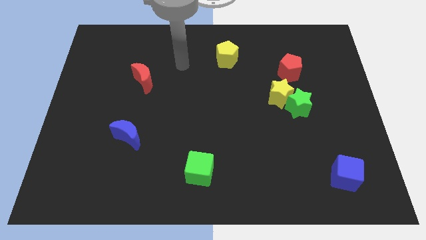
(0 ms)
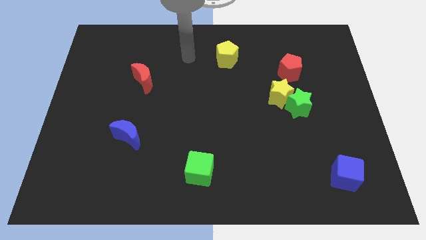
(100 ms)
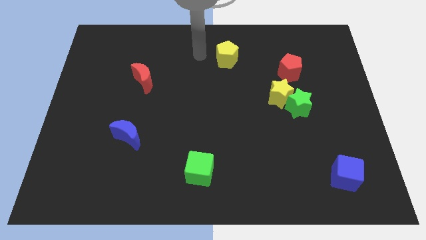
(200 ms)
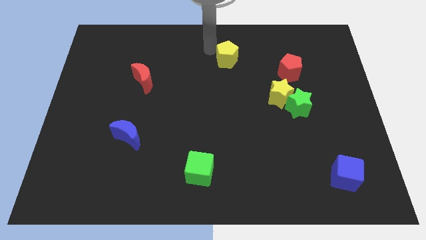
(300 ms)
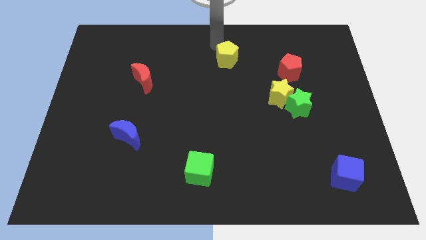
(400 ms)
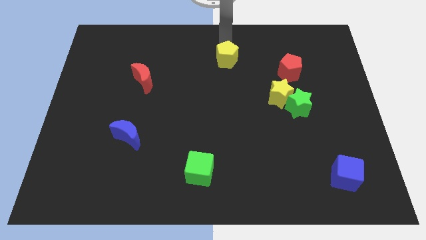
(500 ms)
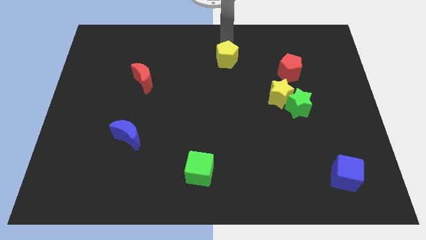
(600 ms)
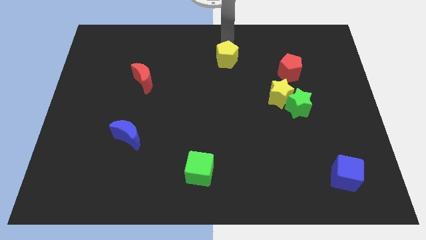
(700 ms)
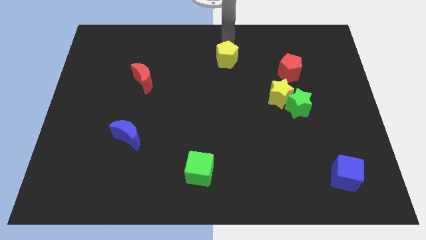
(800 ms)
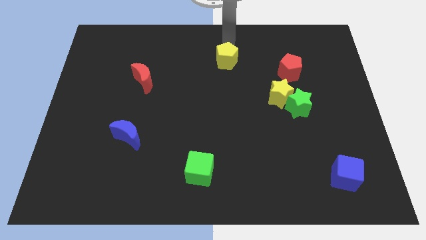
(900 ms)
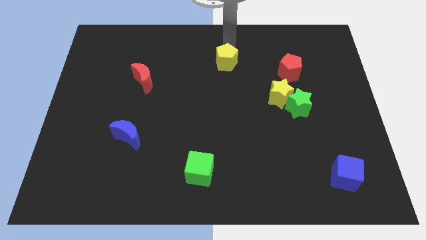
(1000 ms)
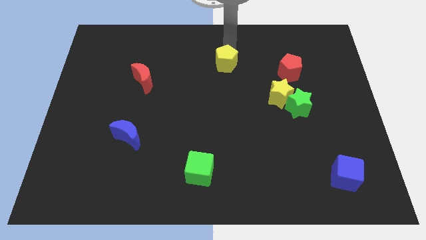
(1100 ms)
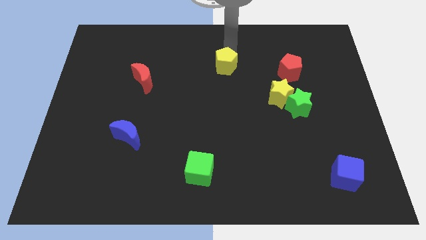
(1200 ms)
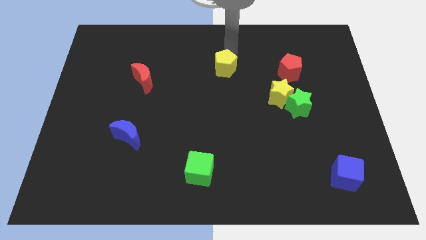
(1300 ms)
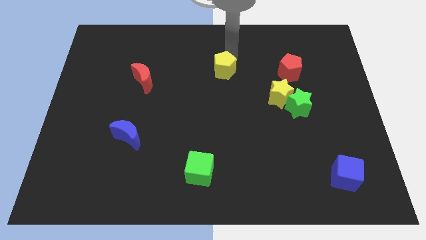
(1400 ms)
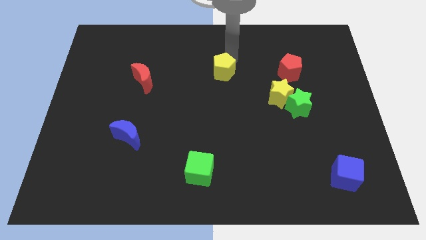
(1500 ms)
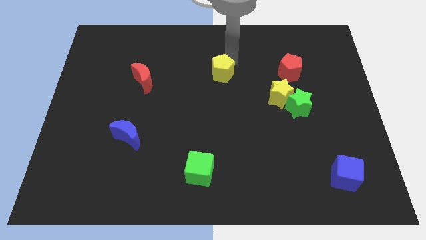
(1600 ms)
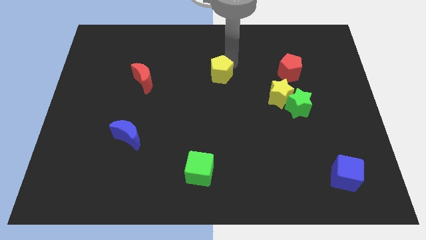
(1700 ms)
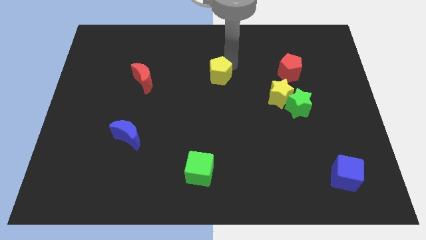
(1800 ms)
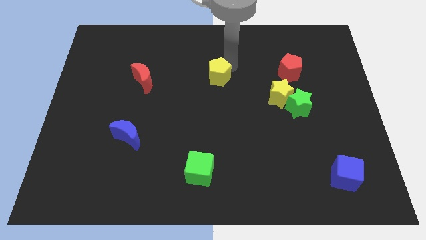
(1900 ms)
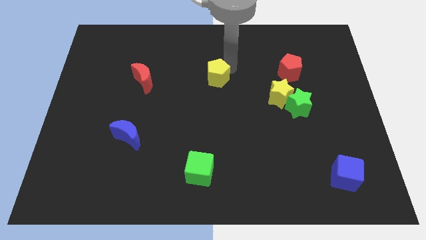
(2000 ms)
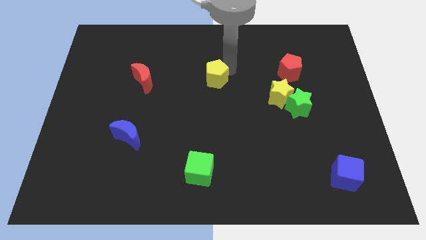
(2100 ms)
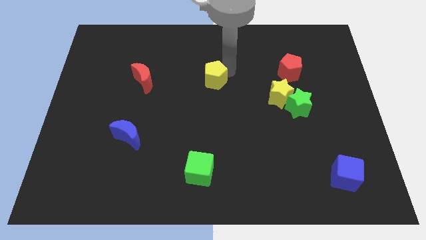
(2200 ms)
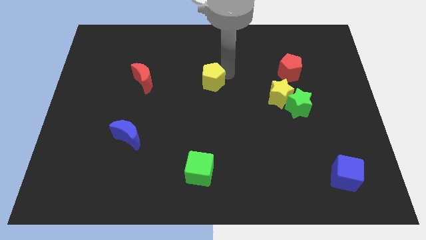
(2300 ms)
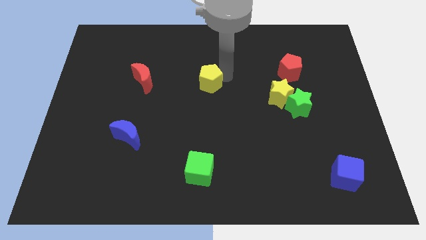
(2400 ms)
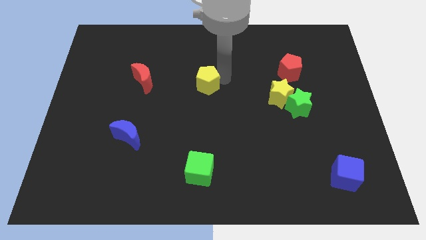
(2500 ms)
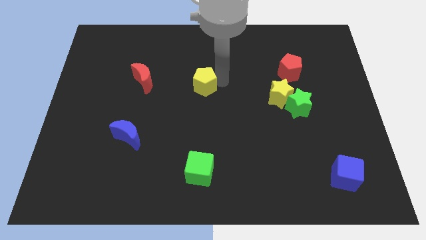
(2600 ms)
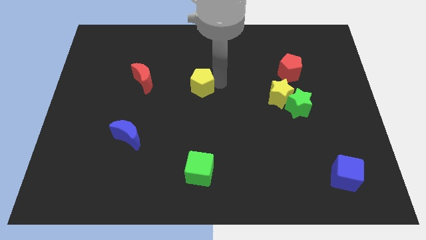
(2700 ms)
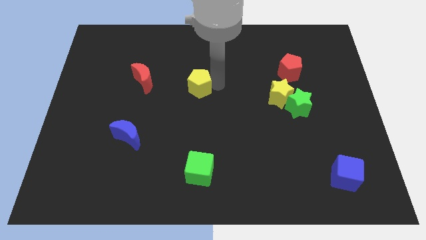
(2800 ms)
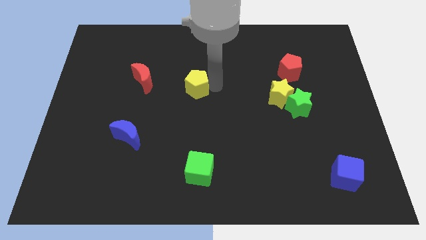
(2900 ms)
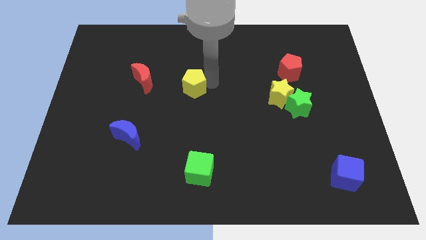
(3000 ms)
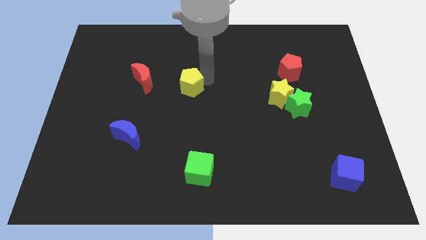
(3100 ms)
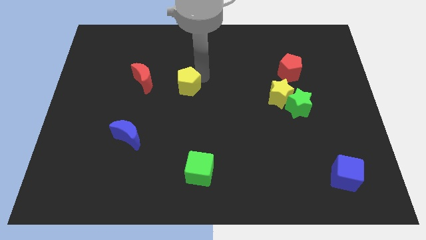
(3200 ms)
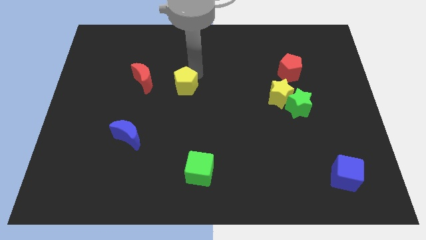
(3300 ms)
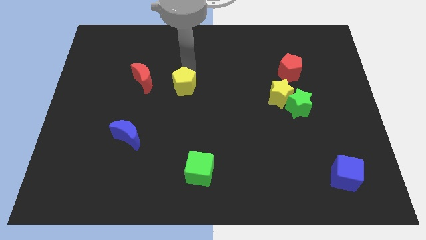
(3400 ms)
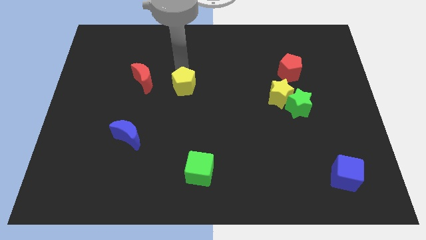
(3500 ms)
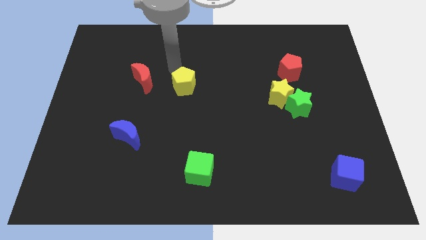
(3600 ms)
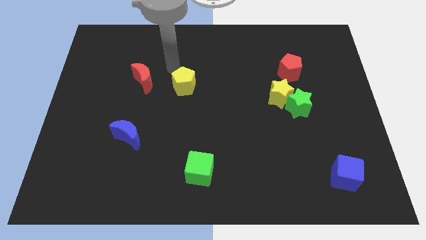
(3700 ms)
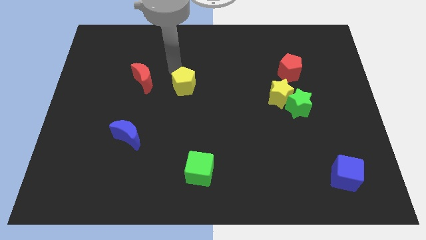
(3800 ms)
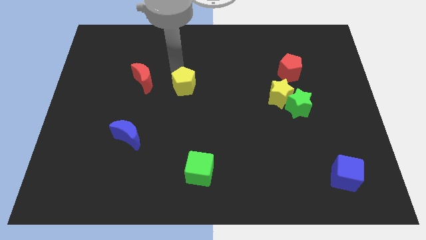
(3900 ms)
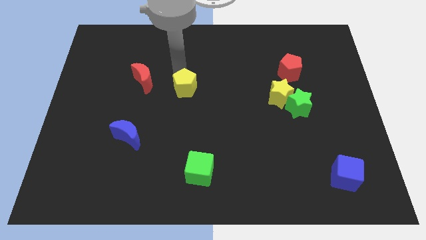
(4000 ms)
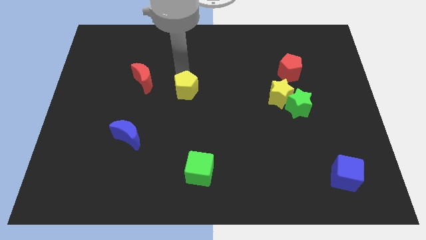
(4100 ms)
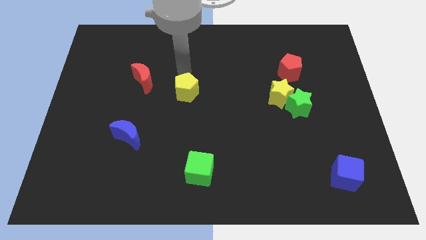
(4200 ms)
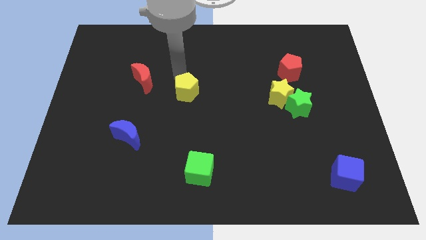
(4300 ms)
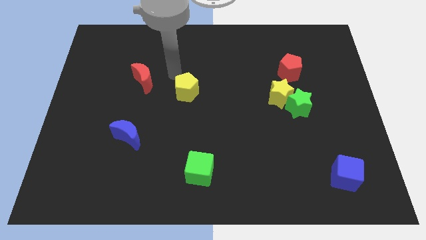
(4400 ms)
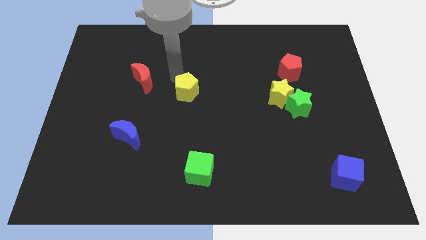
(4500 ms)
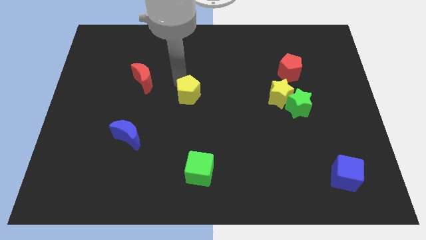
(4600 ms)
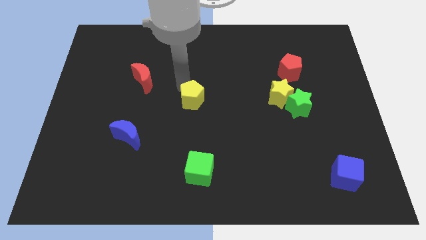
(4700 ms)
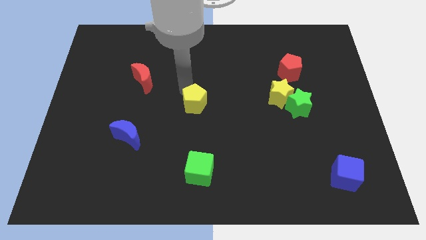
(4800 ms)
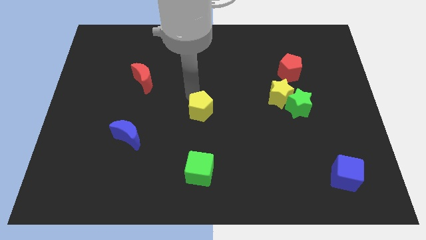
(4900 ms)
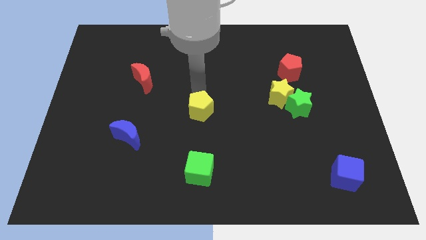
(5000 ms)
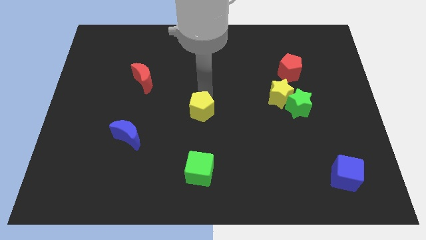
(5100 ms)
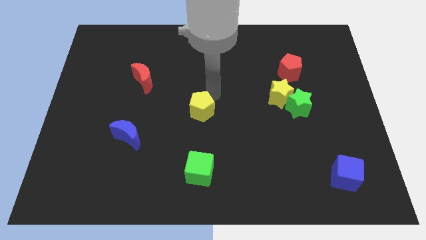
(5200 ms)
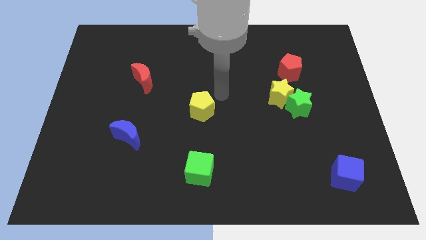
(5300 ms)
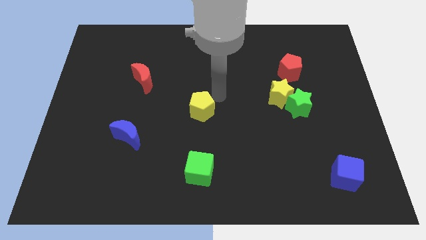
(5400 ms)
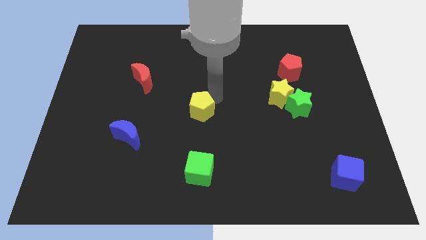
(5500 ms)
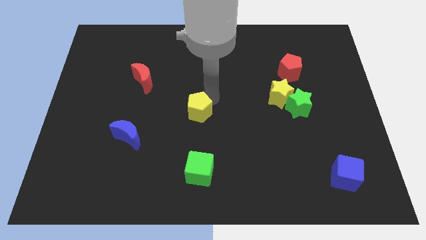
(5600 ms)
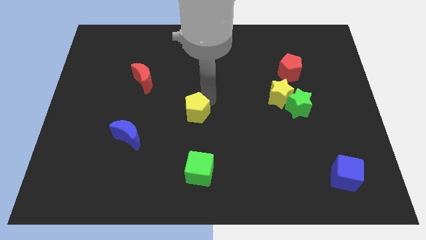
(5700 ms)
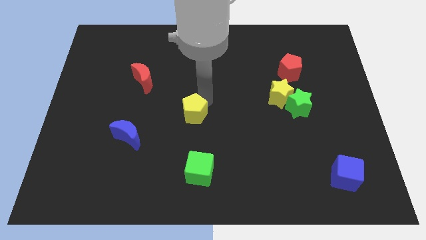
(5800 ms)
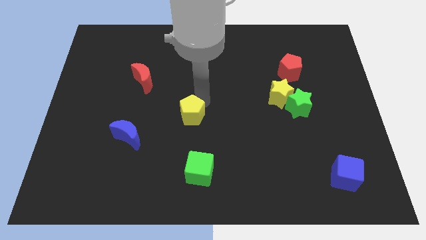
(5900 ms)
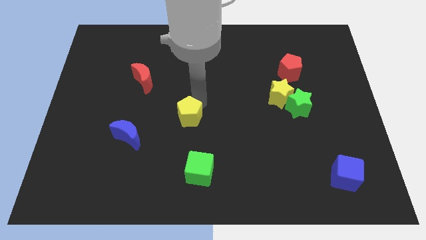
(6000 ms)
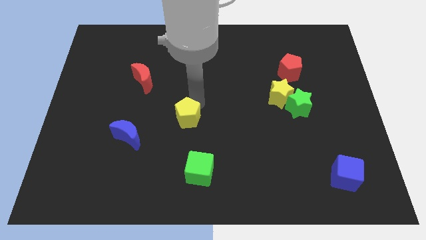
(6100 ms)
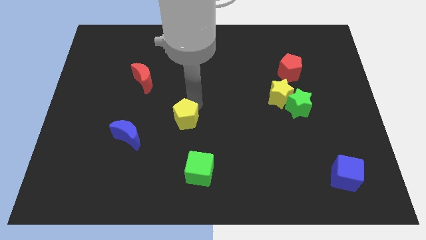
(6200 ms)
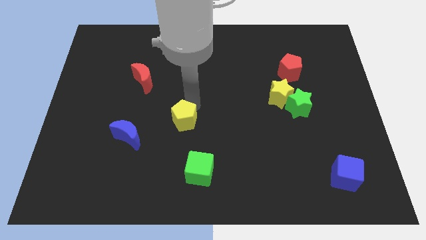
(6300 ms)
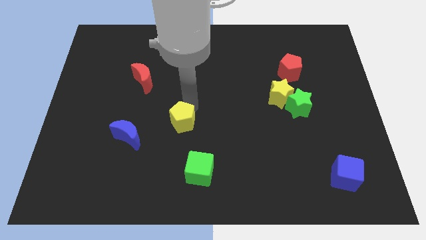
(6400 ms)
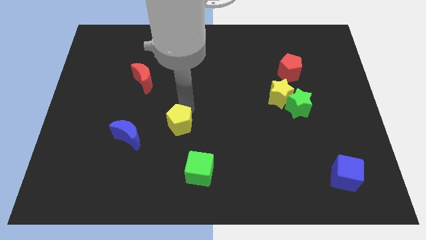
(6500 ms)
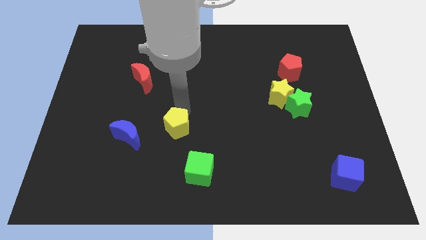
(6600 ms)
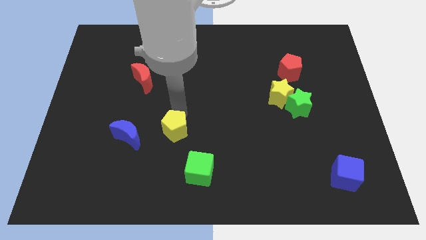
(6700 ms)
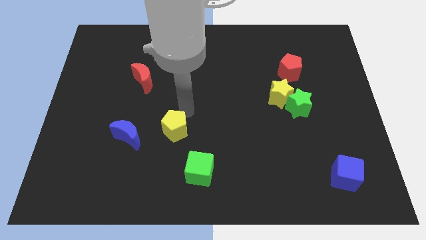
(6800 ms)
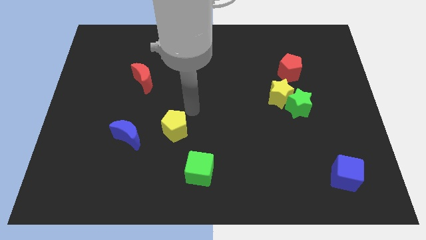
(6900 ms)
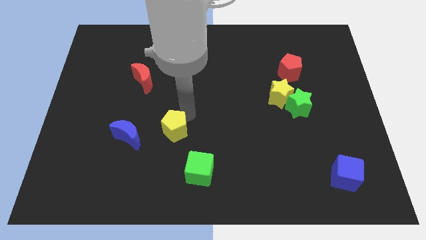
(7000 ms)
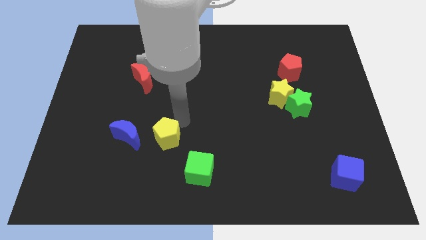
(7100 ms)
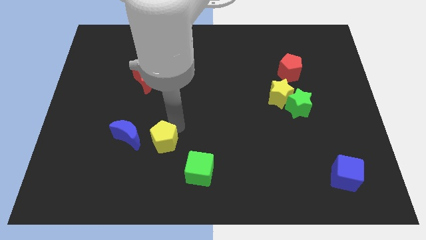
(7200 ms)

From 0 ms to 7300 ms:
move the yellow pentagon to the bottom right side of the blue moon

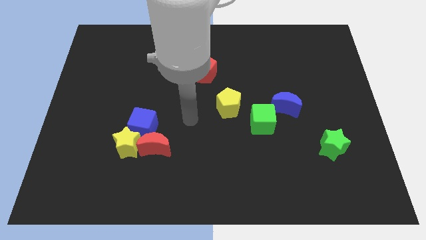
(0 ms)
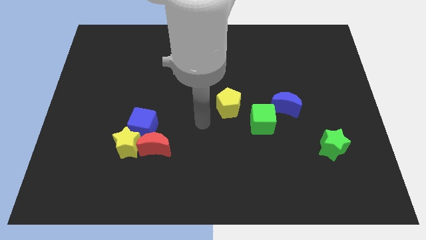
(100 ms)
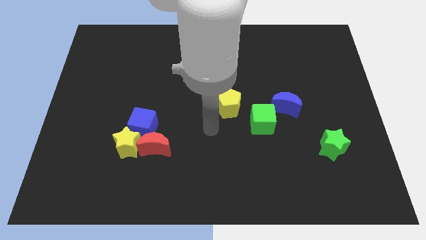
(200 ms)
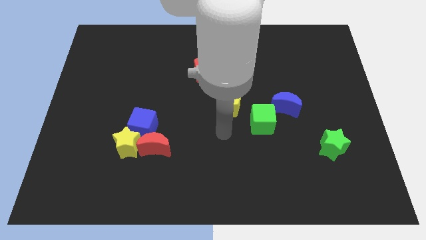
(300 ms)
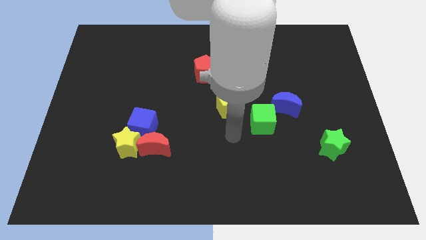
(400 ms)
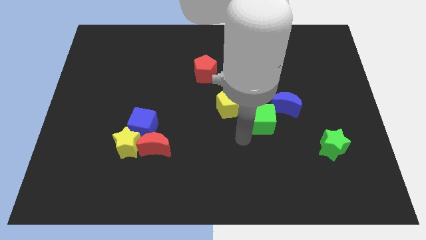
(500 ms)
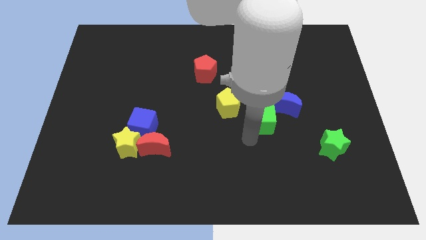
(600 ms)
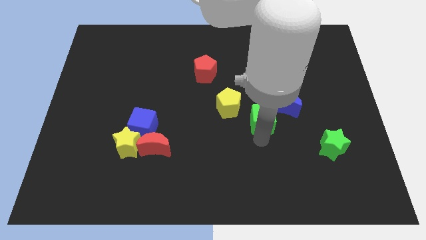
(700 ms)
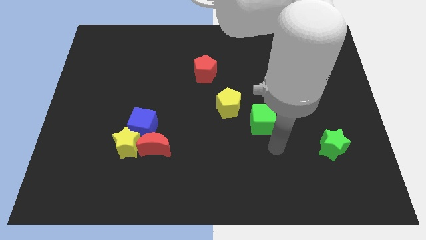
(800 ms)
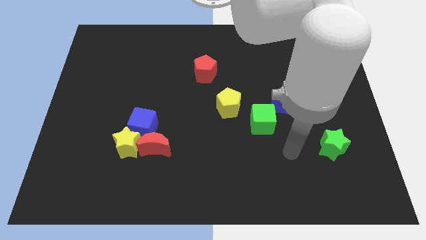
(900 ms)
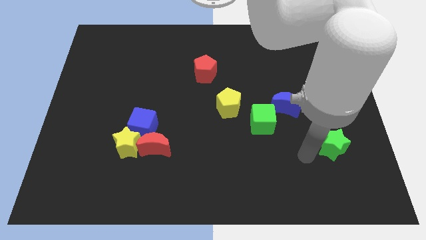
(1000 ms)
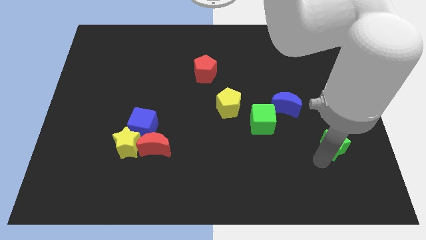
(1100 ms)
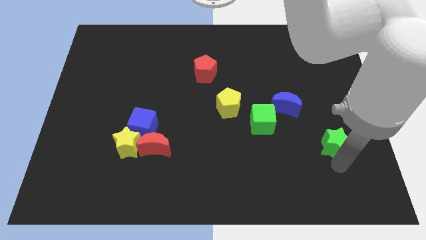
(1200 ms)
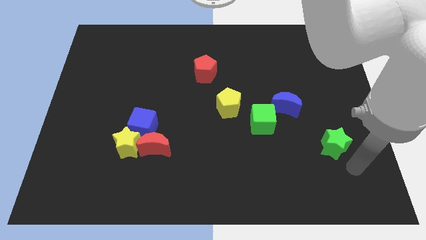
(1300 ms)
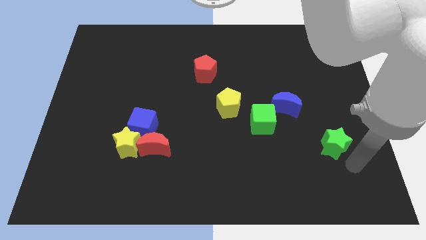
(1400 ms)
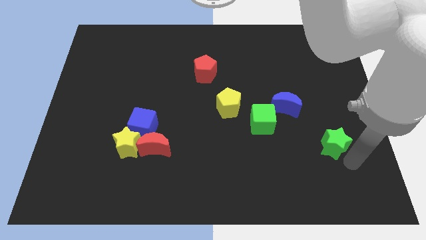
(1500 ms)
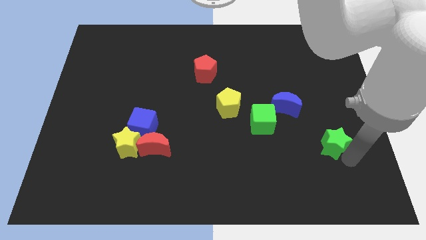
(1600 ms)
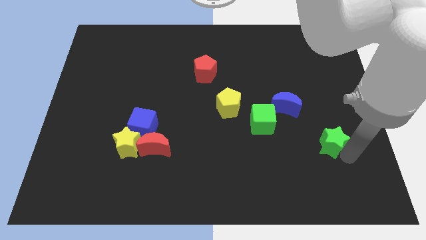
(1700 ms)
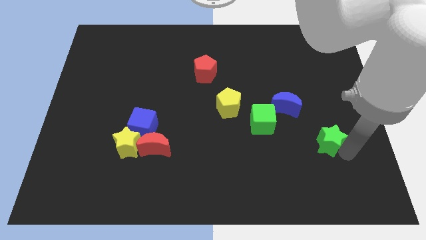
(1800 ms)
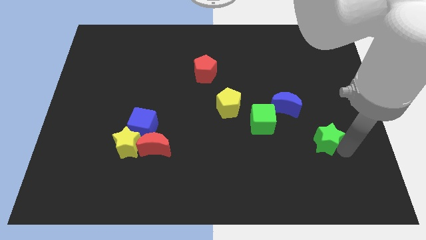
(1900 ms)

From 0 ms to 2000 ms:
push the green star diagonally down and to the right of the blue moon
